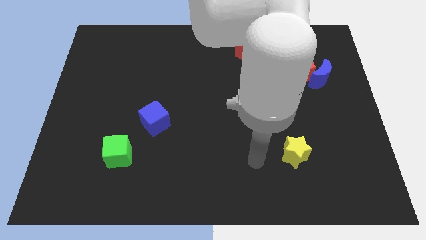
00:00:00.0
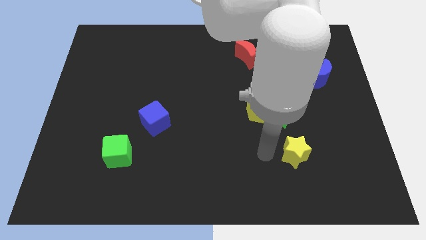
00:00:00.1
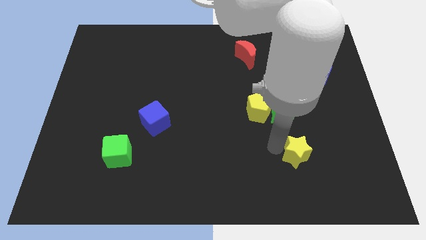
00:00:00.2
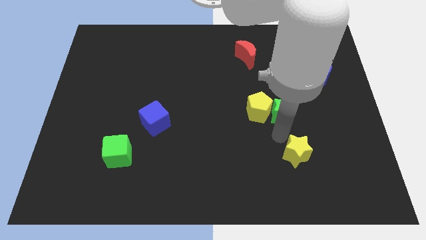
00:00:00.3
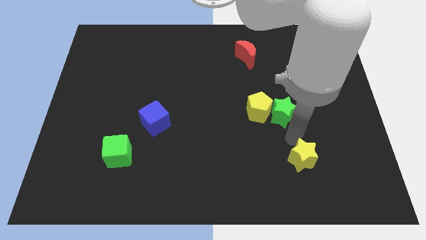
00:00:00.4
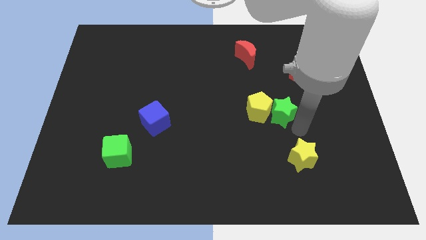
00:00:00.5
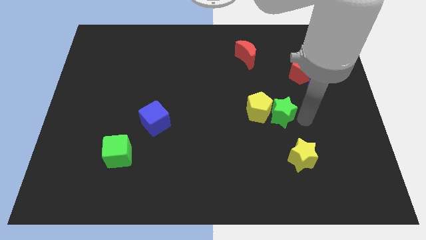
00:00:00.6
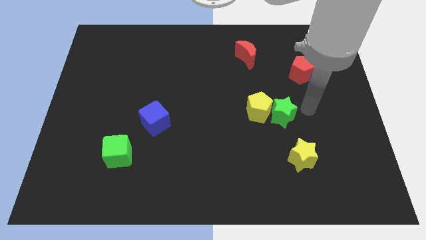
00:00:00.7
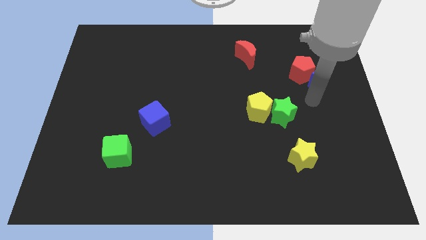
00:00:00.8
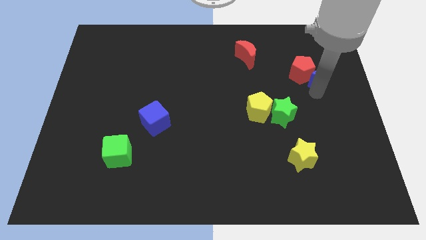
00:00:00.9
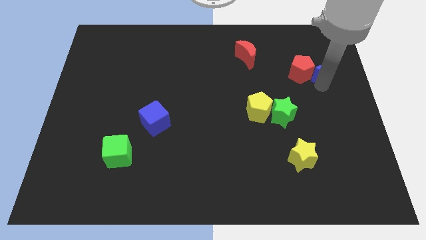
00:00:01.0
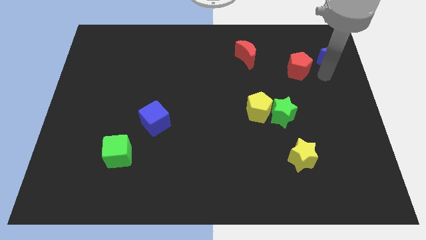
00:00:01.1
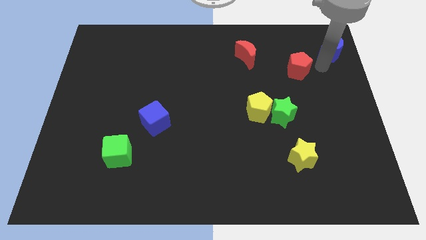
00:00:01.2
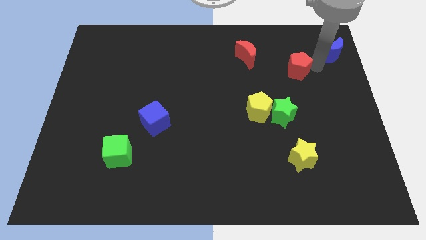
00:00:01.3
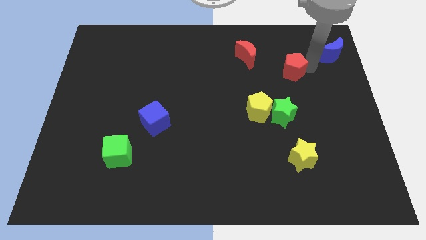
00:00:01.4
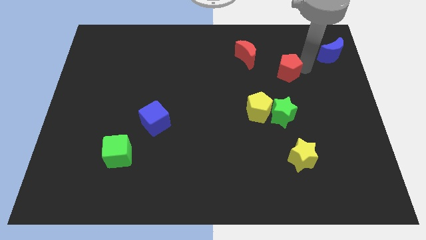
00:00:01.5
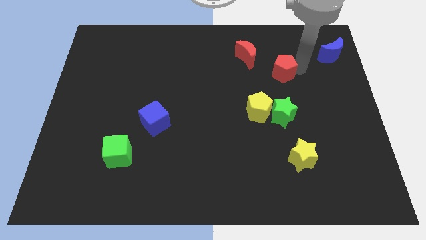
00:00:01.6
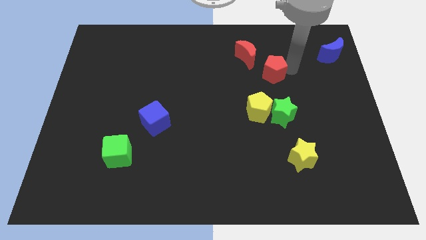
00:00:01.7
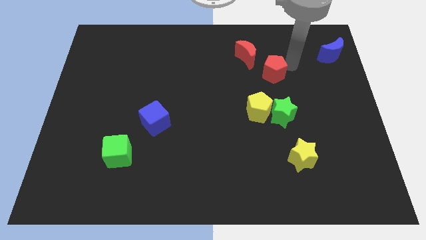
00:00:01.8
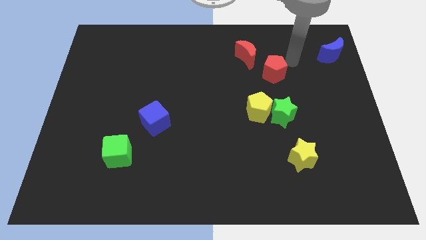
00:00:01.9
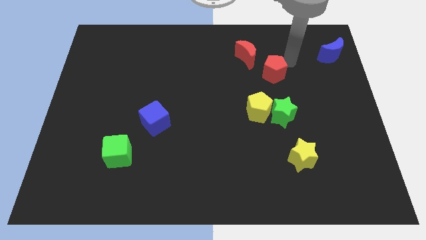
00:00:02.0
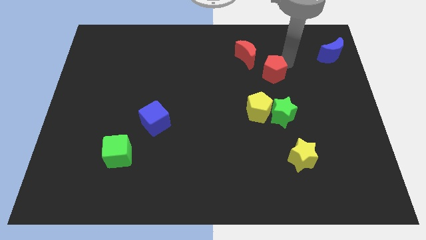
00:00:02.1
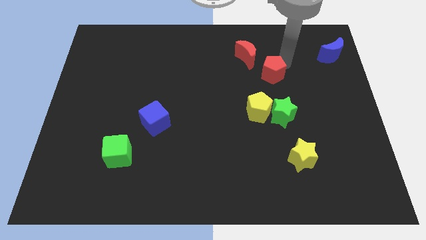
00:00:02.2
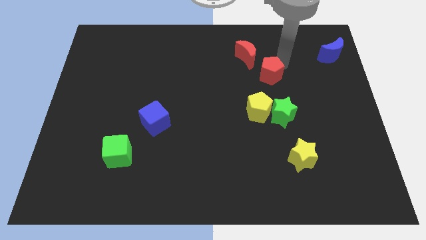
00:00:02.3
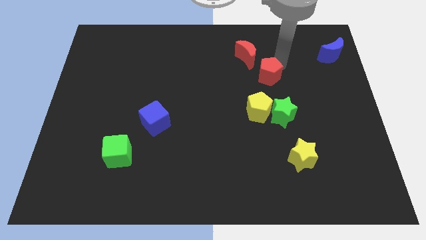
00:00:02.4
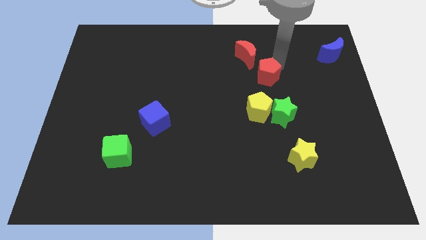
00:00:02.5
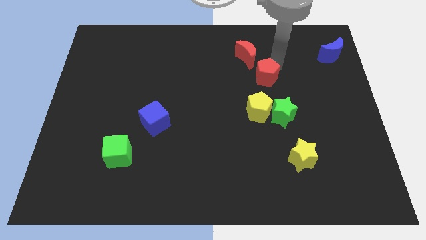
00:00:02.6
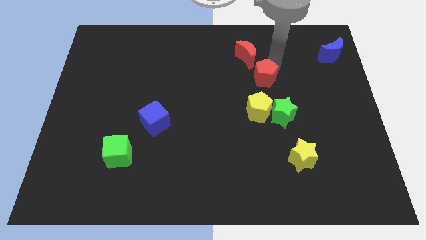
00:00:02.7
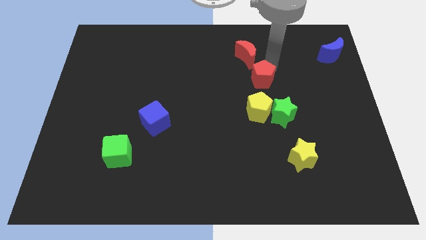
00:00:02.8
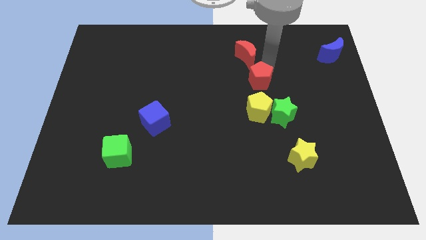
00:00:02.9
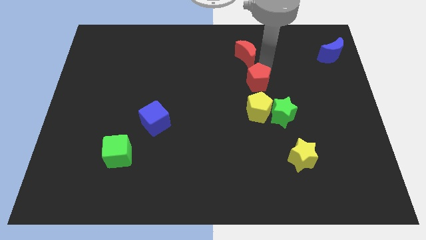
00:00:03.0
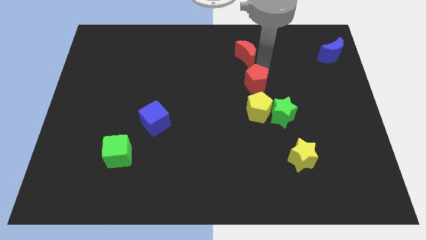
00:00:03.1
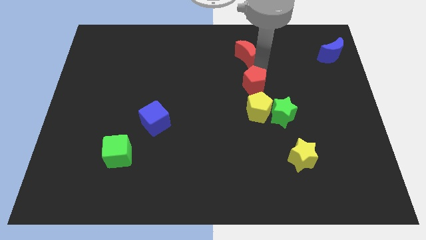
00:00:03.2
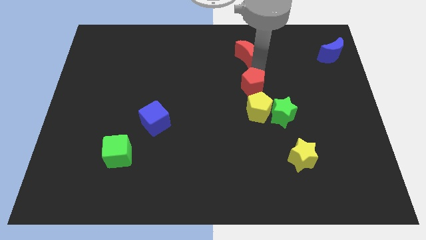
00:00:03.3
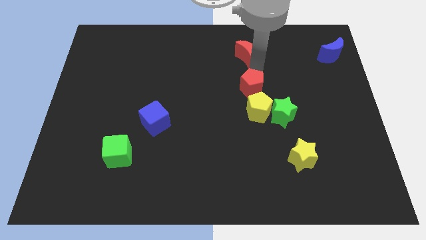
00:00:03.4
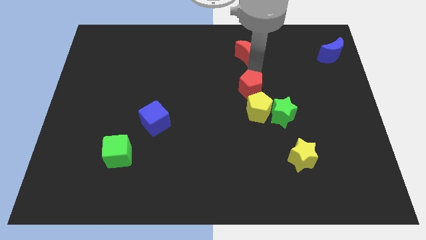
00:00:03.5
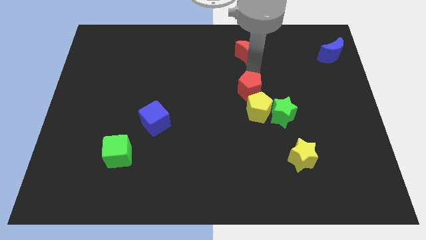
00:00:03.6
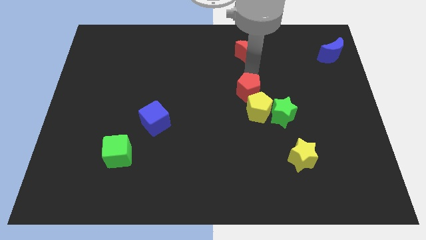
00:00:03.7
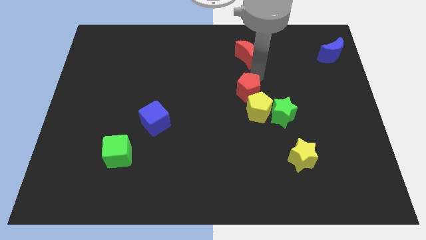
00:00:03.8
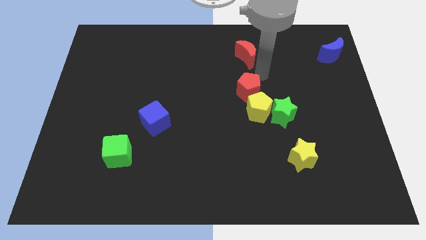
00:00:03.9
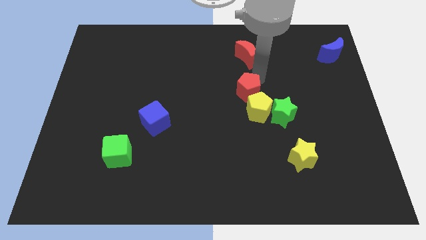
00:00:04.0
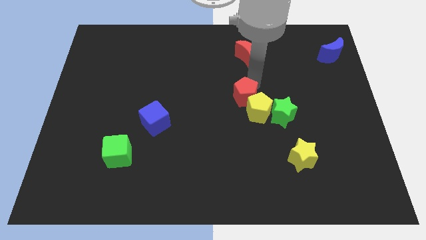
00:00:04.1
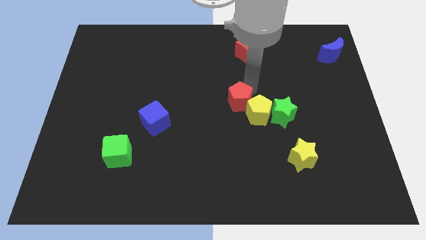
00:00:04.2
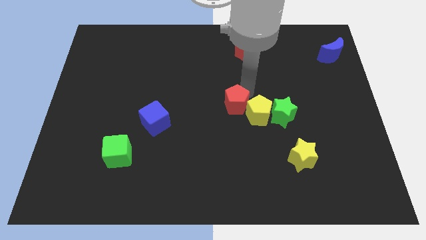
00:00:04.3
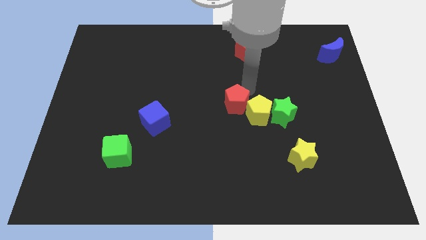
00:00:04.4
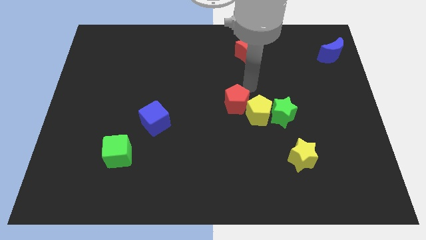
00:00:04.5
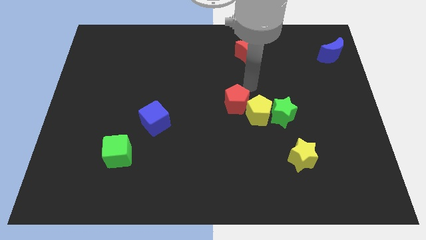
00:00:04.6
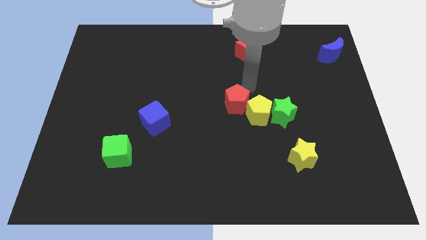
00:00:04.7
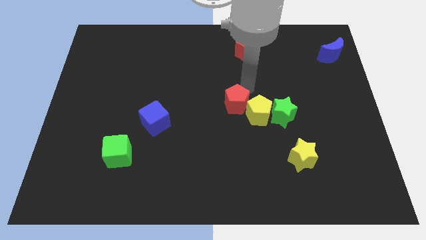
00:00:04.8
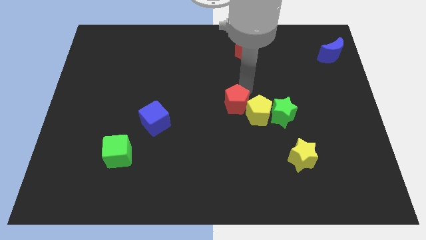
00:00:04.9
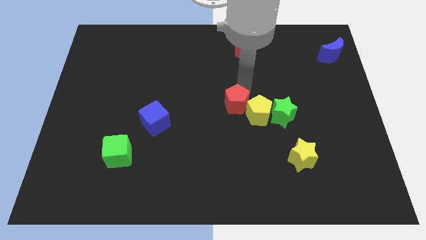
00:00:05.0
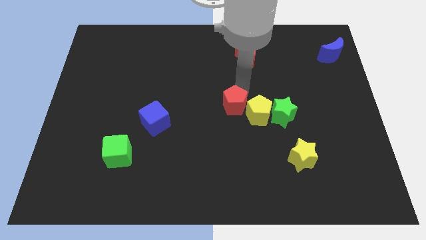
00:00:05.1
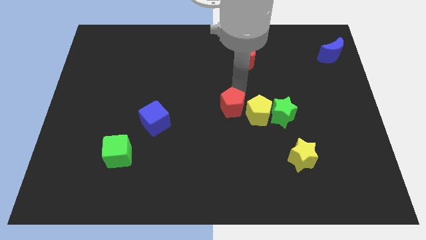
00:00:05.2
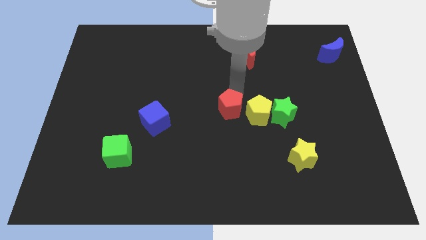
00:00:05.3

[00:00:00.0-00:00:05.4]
move the red pentagon diagonally downwards and to the left

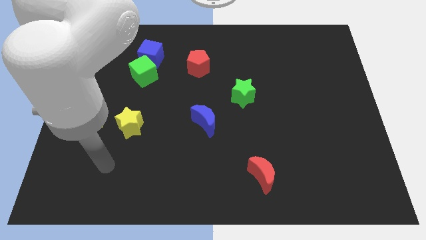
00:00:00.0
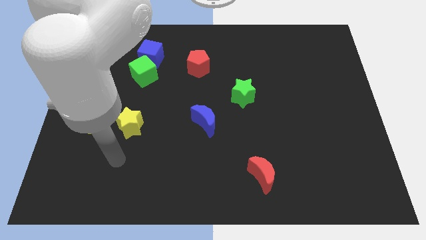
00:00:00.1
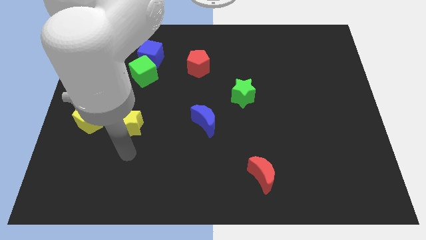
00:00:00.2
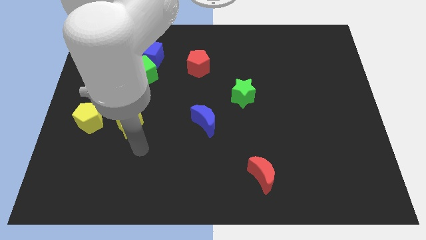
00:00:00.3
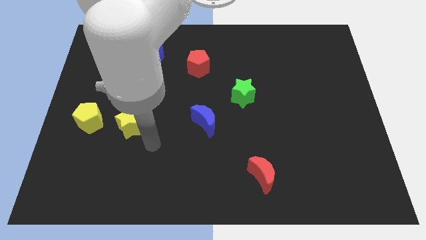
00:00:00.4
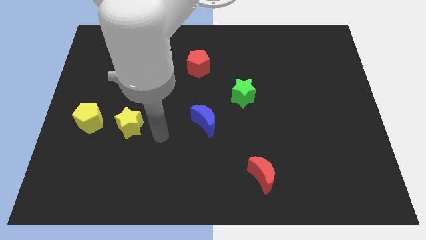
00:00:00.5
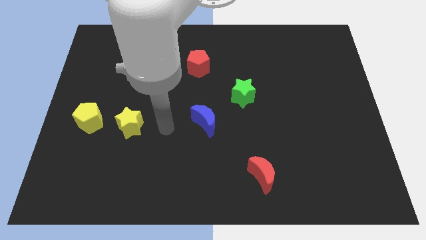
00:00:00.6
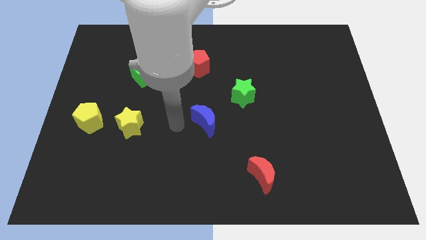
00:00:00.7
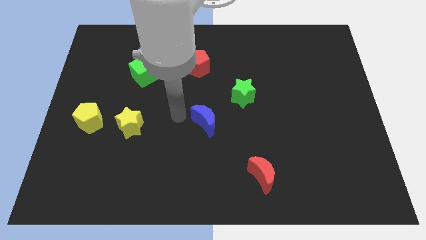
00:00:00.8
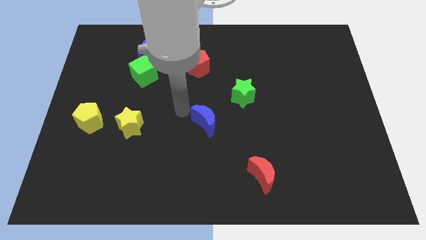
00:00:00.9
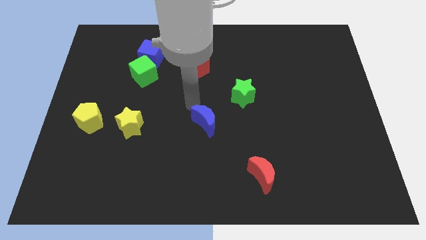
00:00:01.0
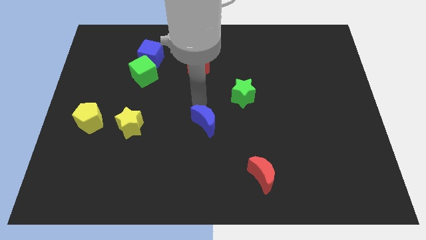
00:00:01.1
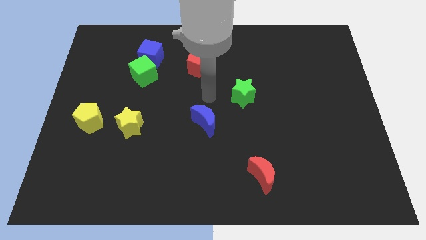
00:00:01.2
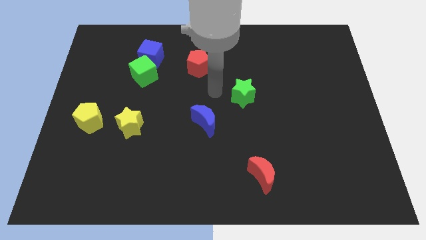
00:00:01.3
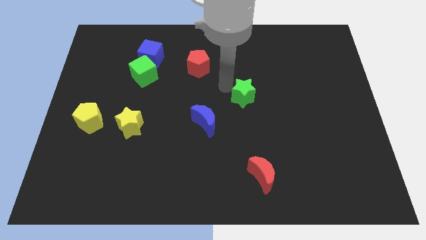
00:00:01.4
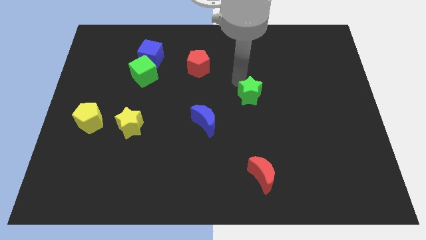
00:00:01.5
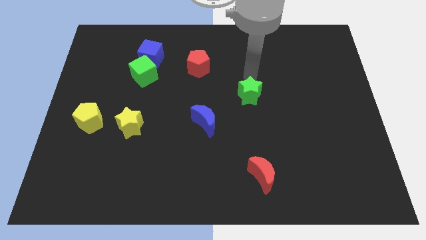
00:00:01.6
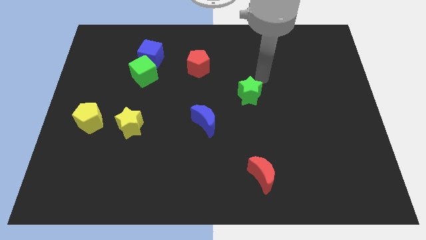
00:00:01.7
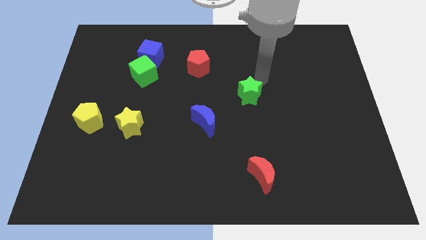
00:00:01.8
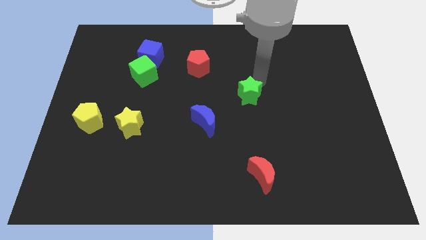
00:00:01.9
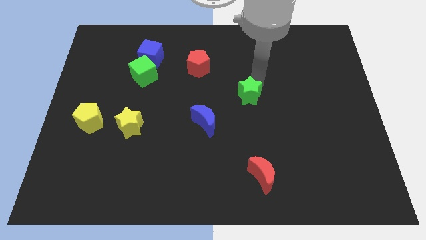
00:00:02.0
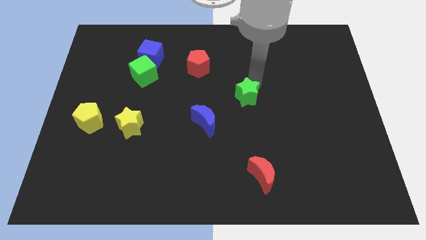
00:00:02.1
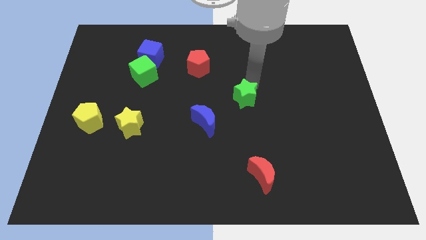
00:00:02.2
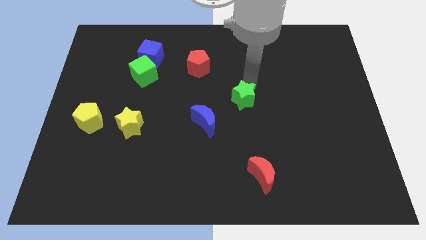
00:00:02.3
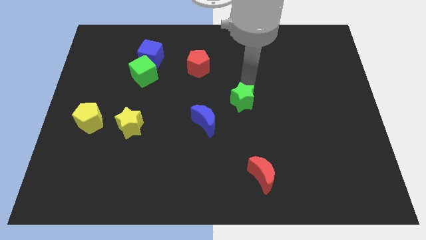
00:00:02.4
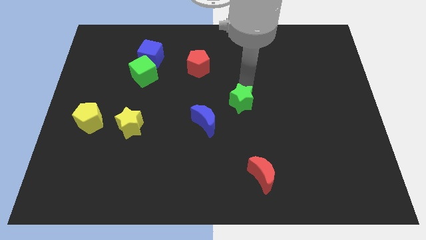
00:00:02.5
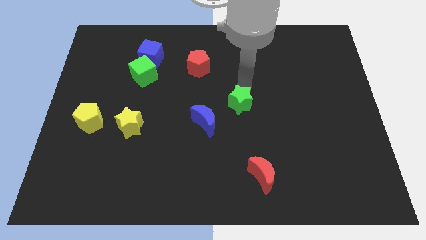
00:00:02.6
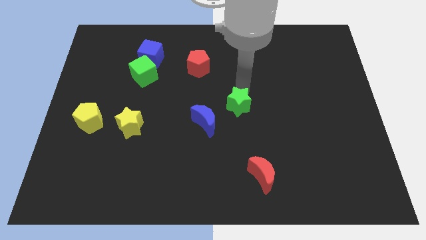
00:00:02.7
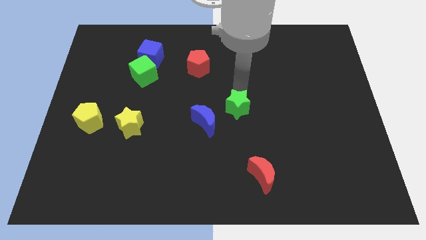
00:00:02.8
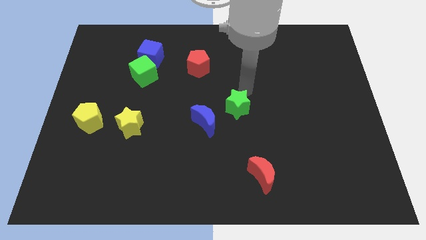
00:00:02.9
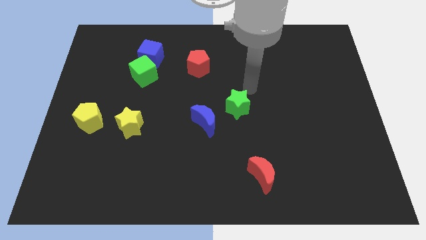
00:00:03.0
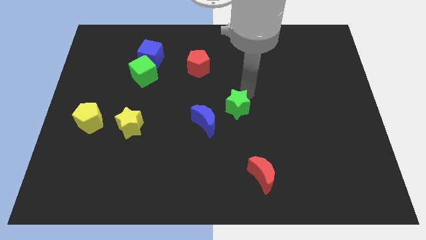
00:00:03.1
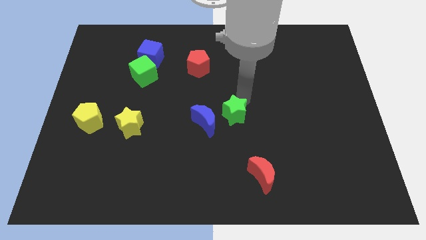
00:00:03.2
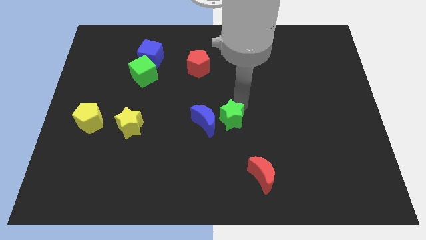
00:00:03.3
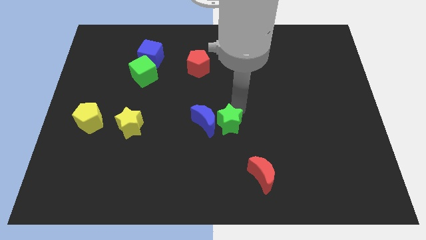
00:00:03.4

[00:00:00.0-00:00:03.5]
move the green star a bit down and left
